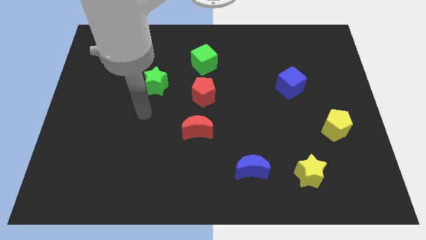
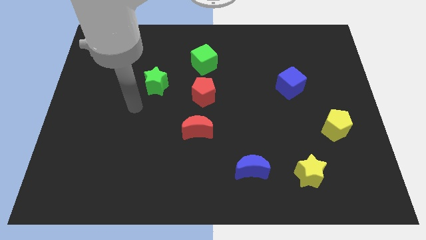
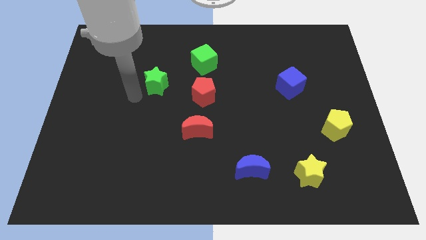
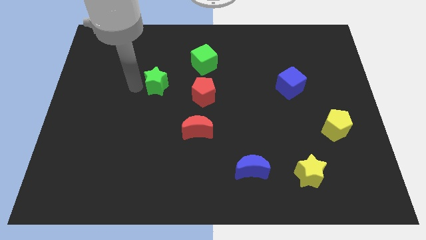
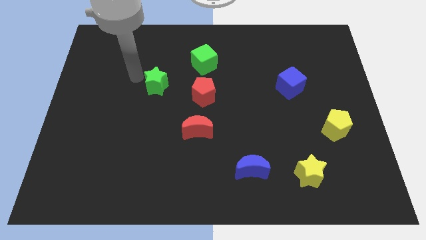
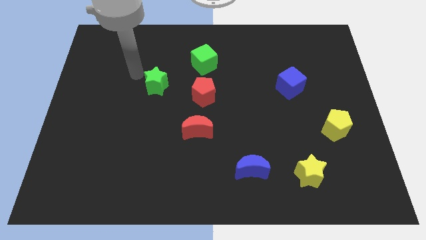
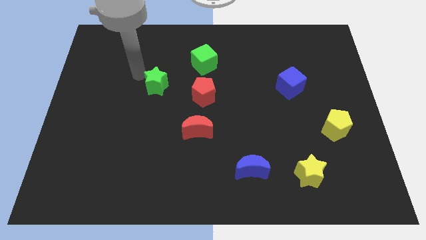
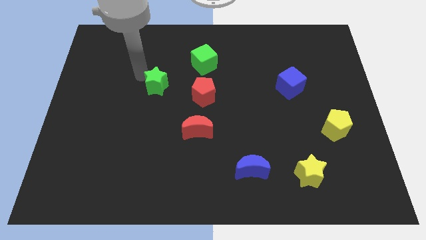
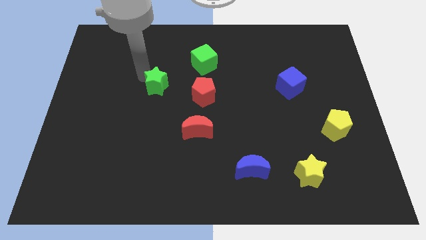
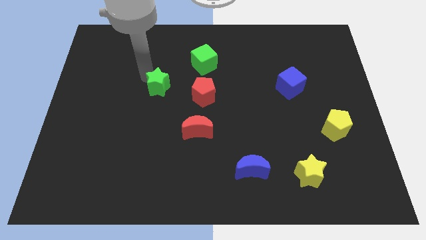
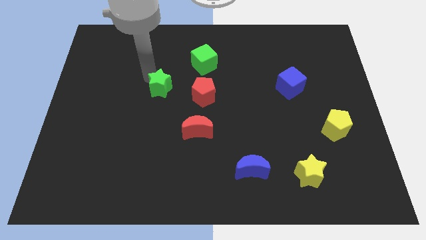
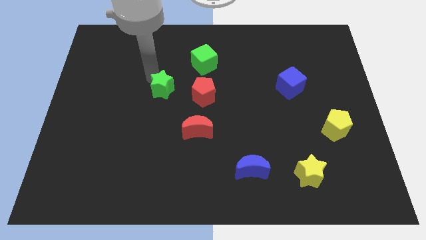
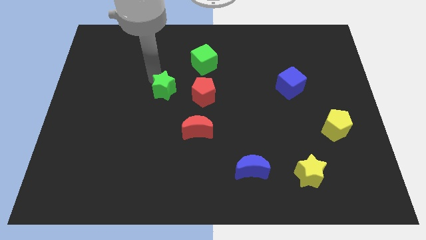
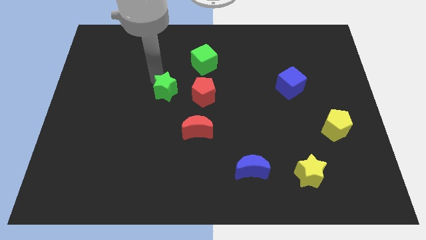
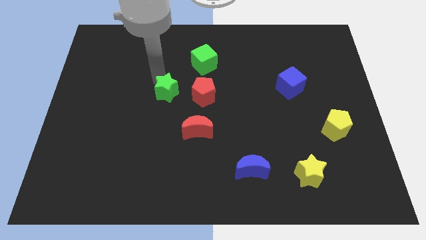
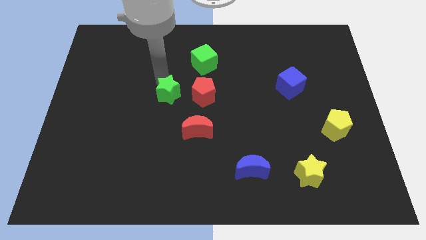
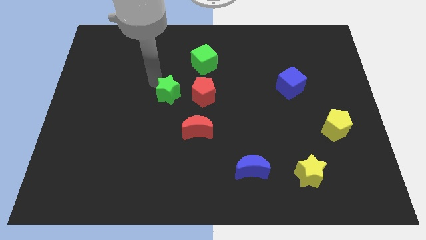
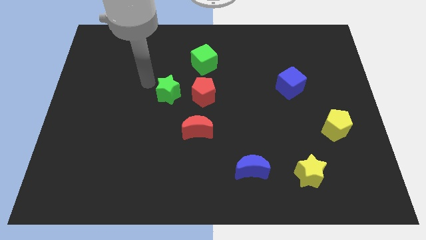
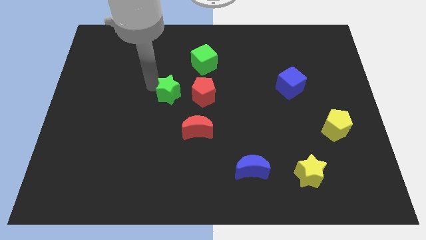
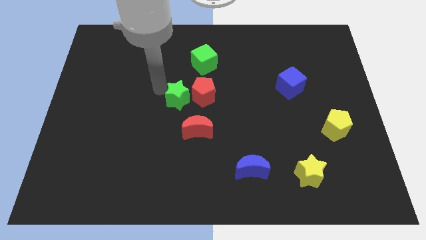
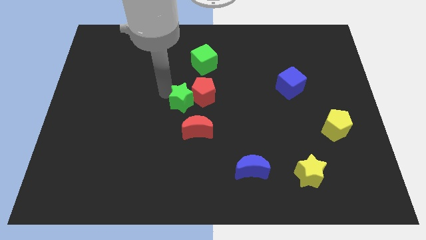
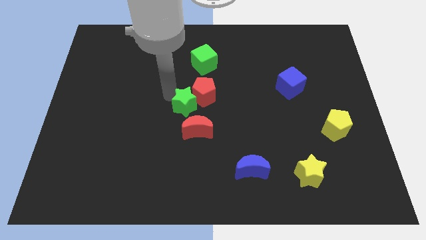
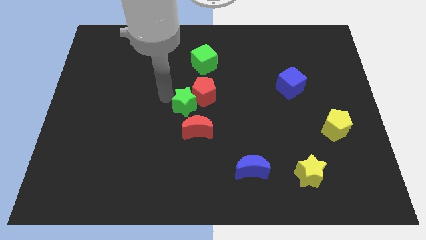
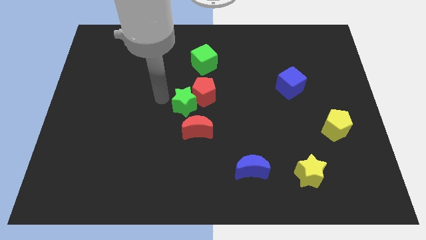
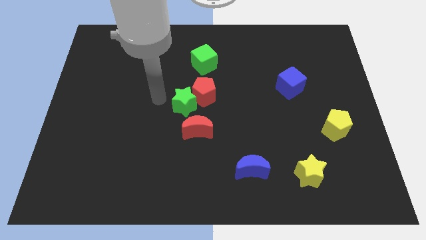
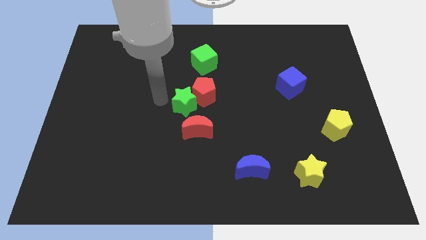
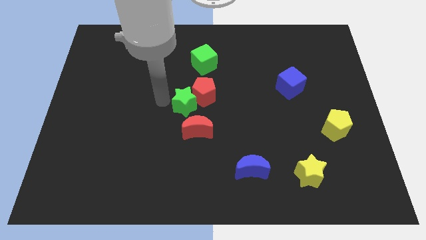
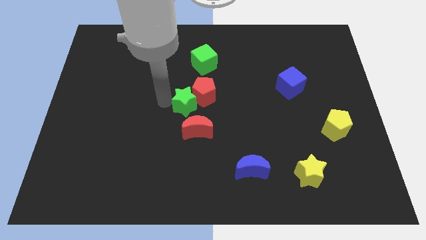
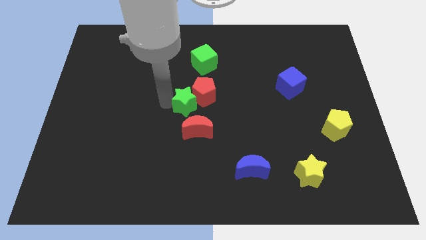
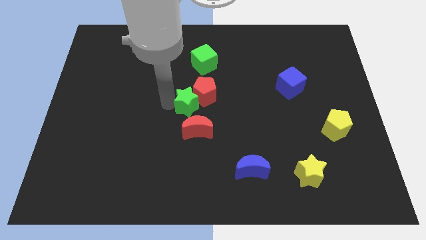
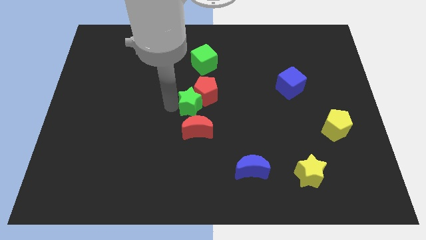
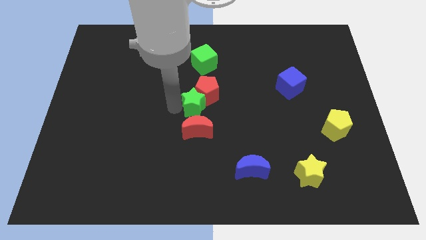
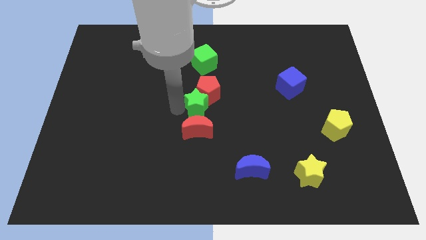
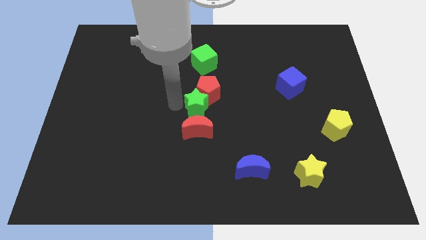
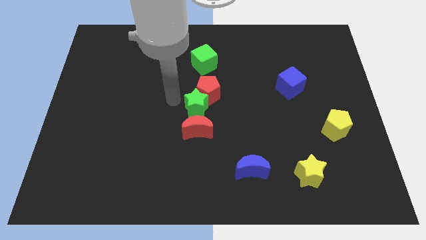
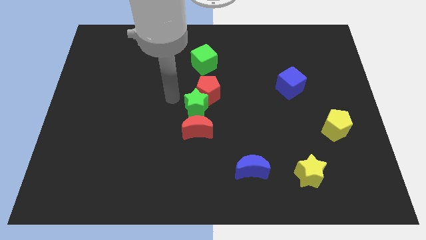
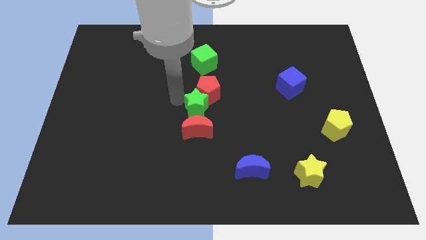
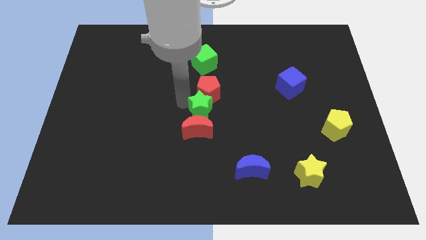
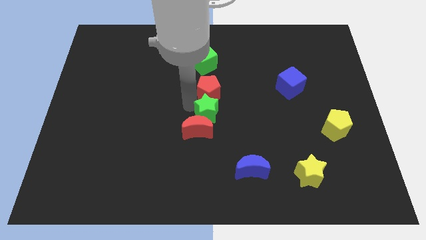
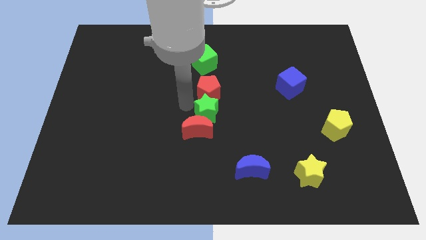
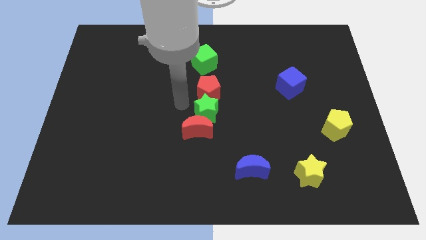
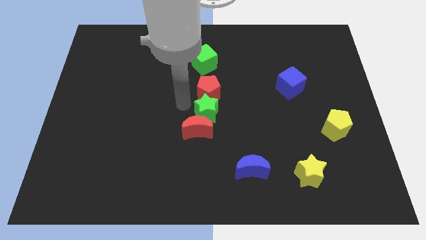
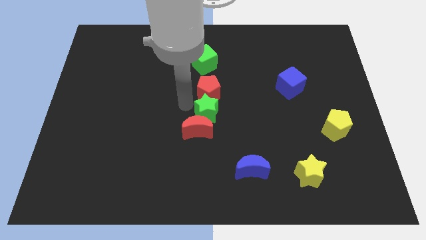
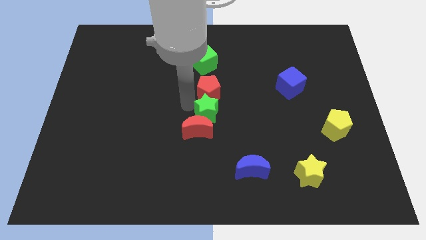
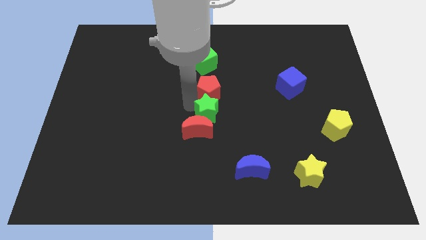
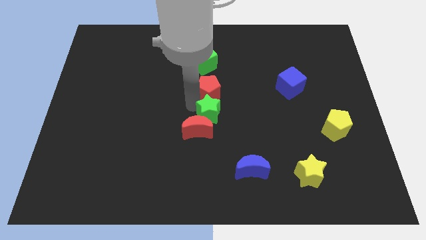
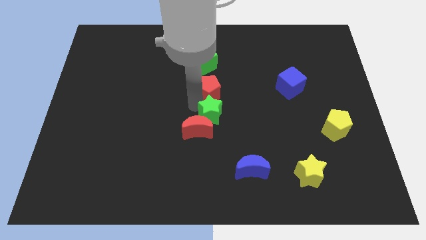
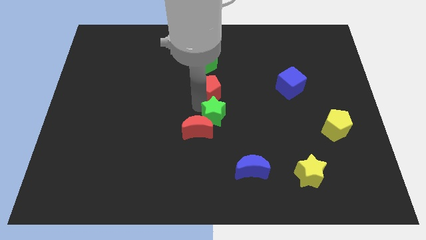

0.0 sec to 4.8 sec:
put the green star to the right side of the red moon

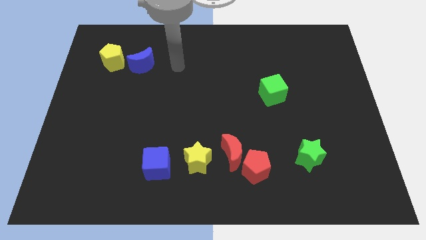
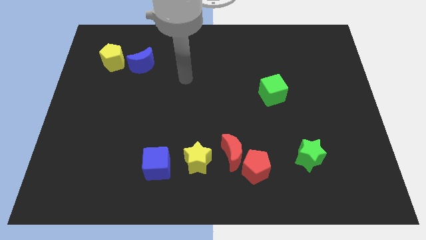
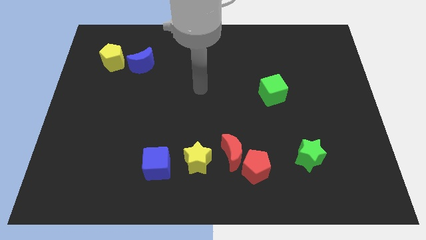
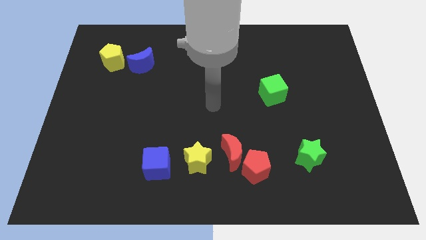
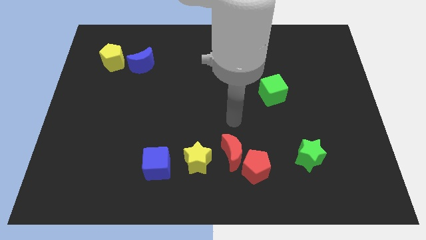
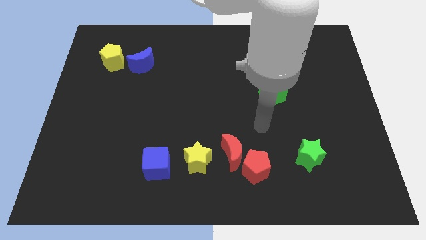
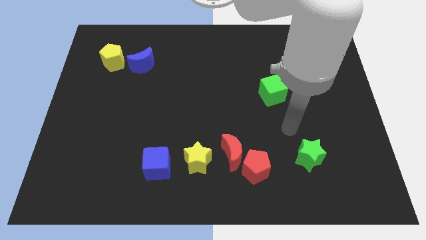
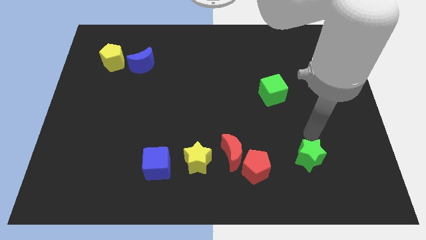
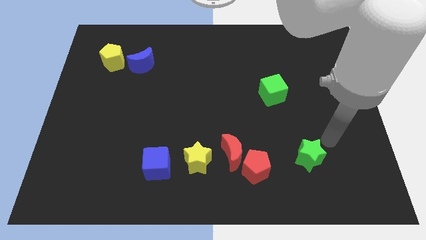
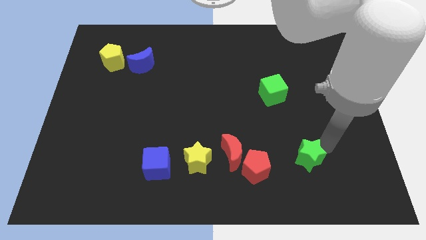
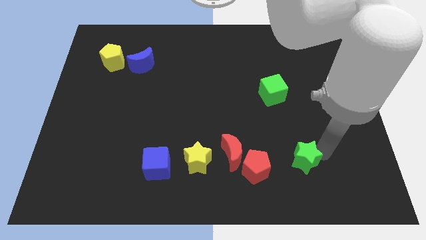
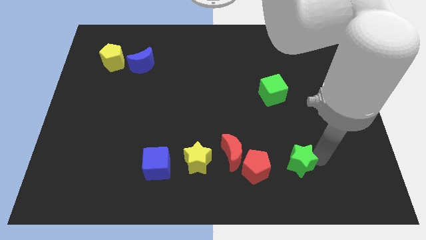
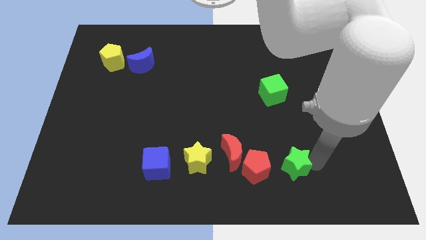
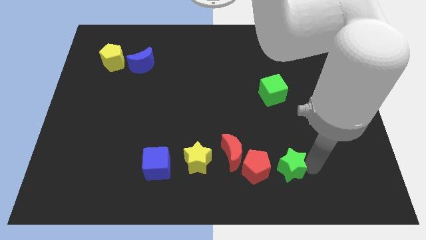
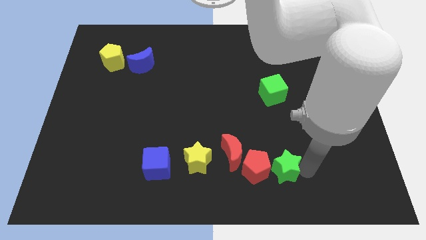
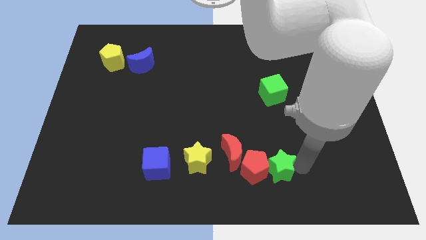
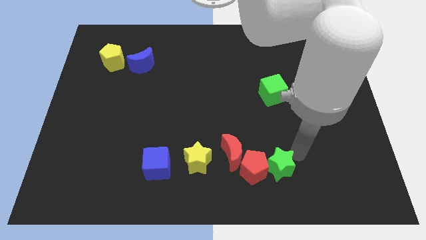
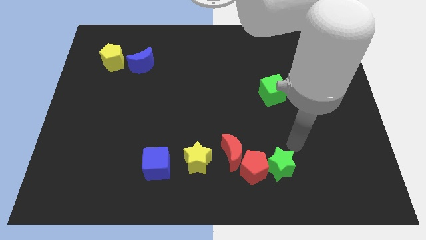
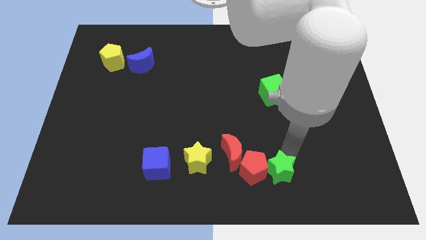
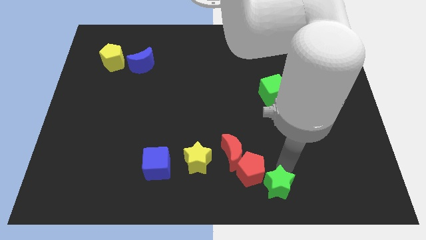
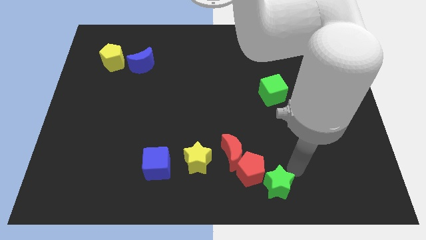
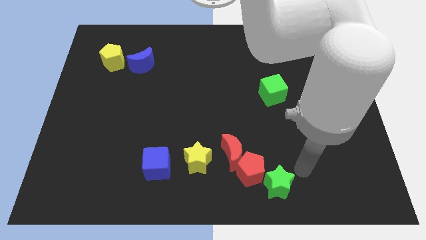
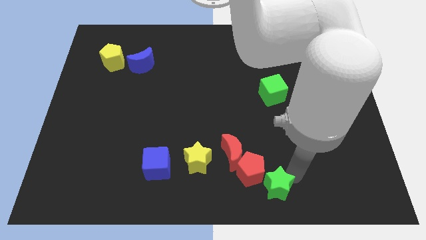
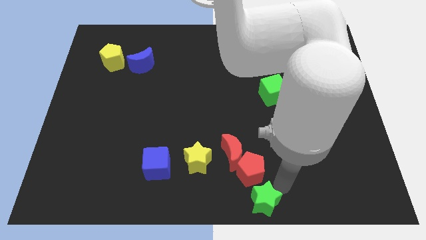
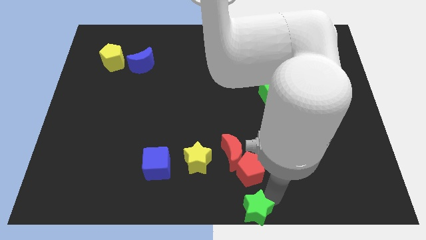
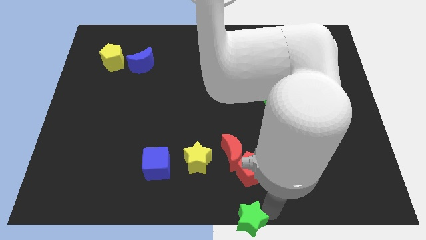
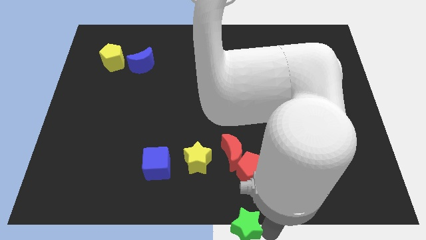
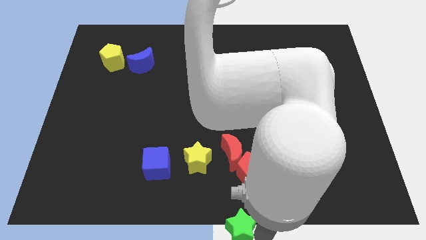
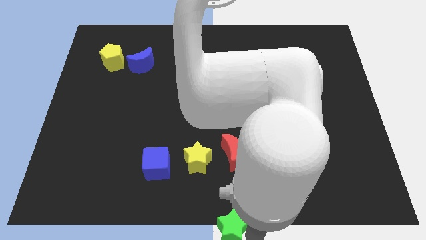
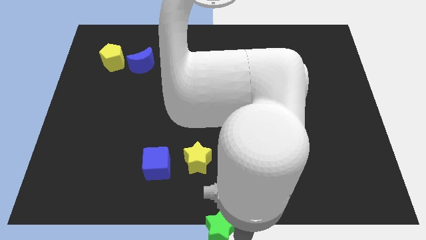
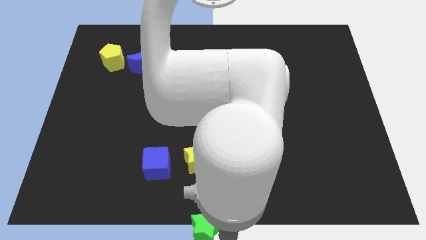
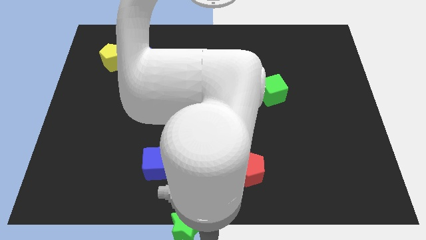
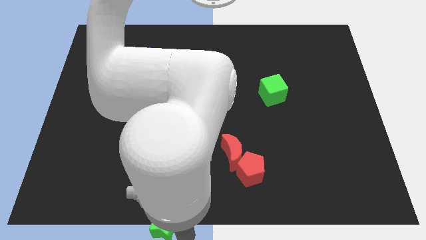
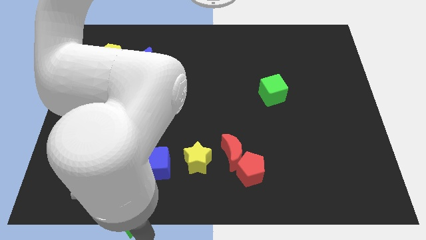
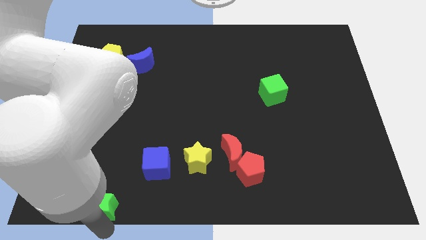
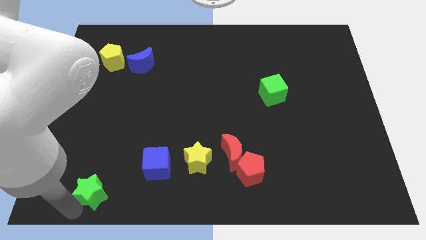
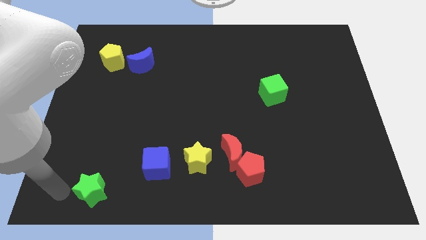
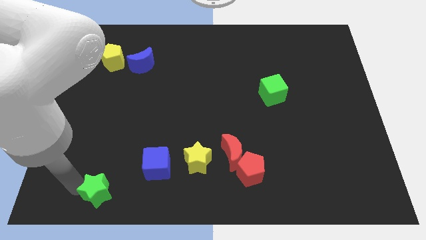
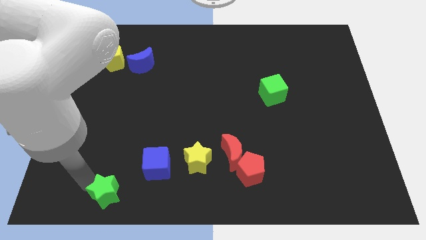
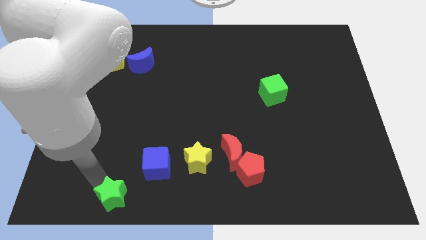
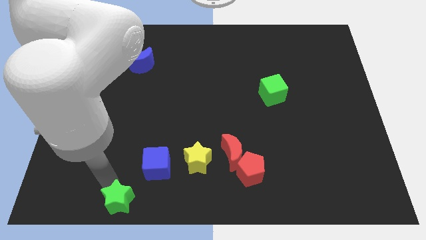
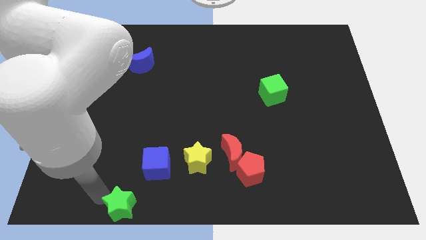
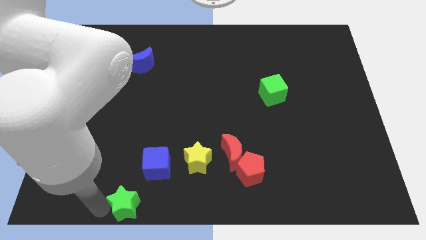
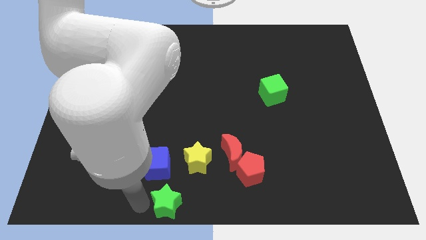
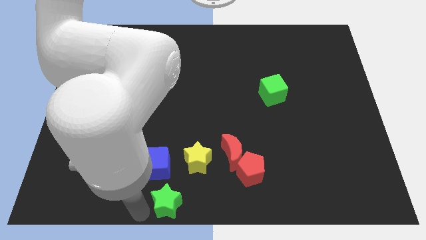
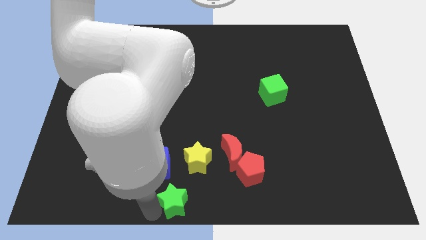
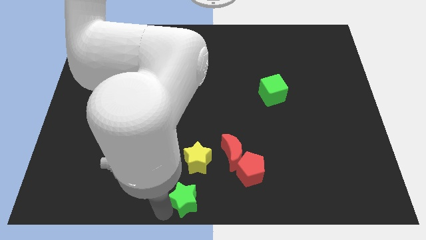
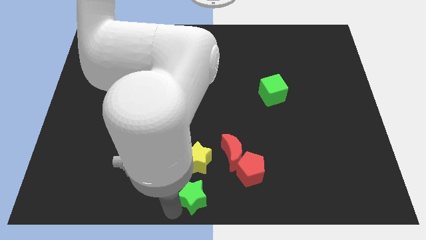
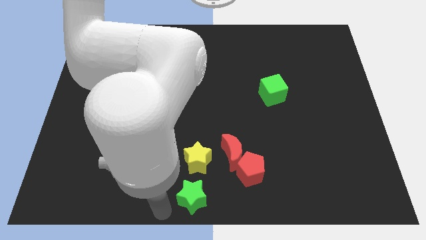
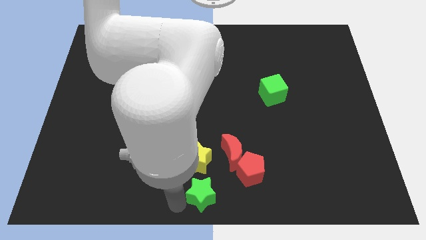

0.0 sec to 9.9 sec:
push the green star diagonally down and to the right of the yellow star
